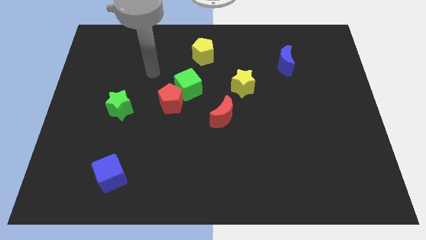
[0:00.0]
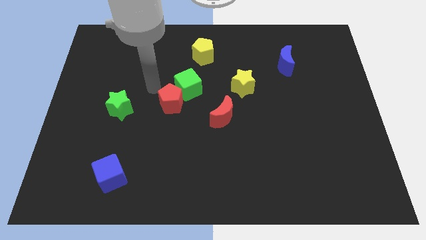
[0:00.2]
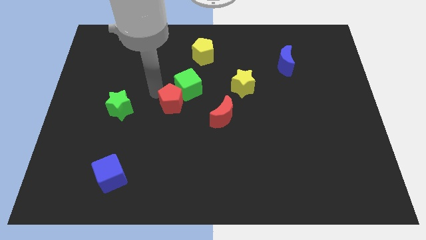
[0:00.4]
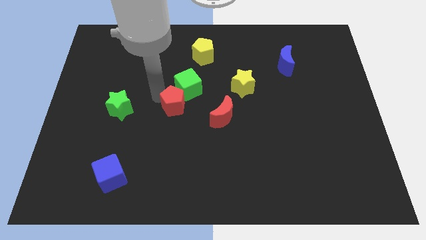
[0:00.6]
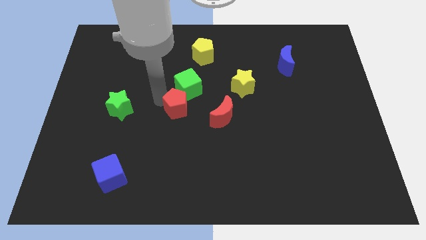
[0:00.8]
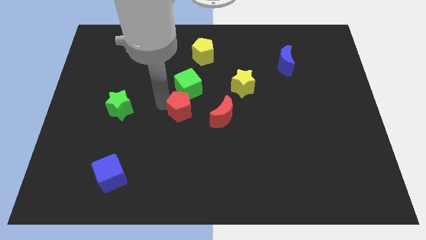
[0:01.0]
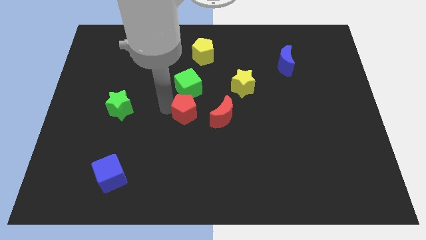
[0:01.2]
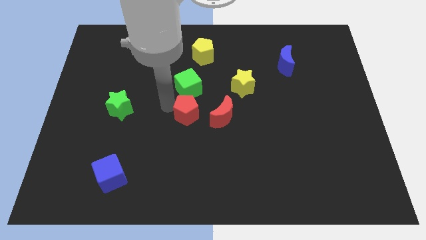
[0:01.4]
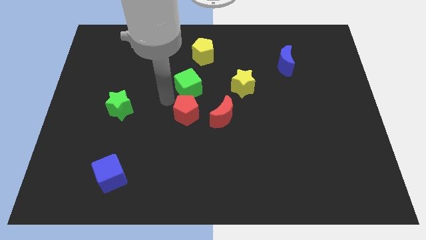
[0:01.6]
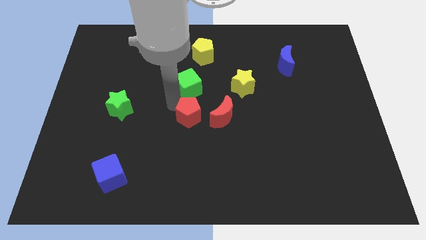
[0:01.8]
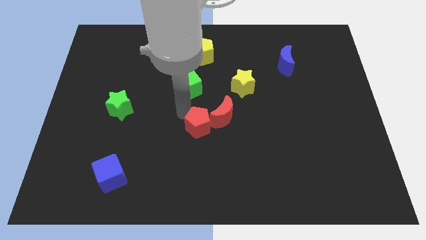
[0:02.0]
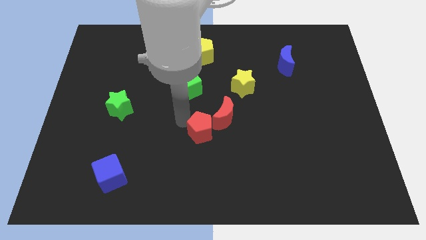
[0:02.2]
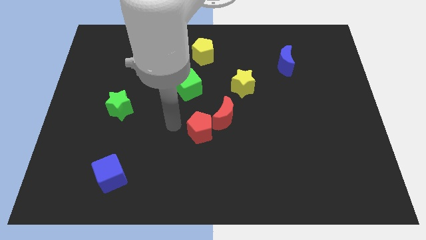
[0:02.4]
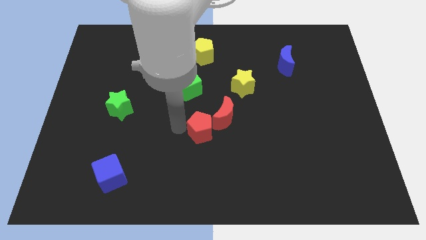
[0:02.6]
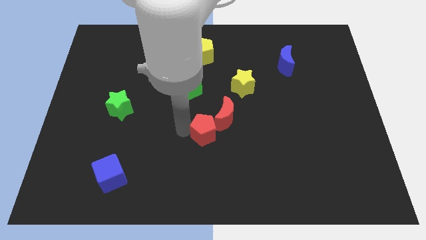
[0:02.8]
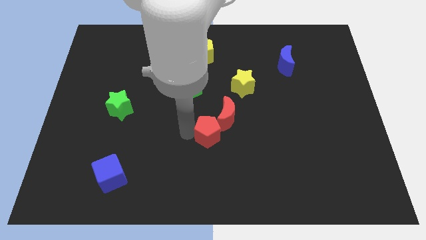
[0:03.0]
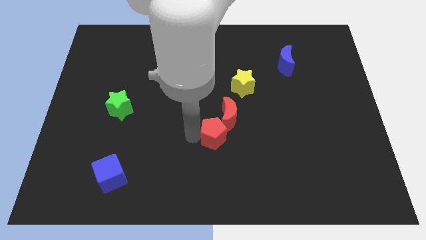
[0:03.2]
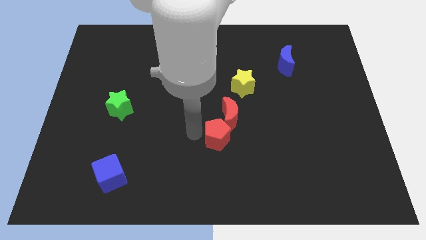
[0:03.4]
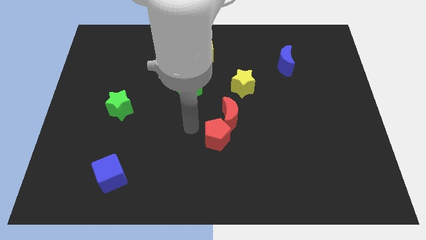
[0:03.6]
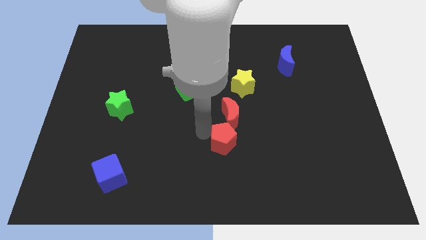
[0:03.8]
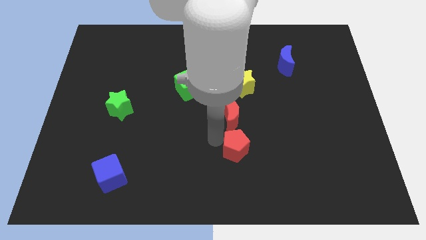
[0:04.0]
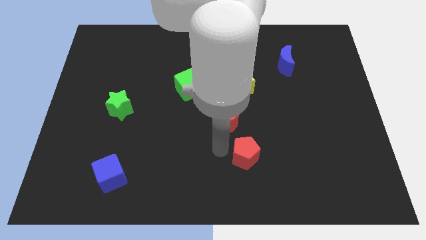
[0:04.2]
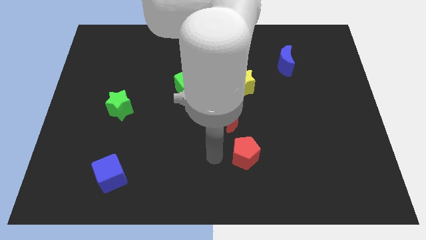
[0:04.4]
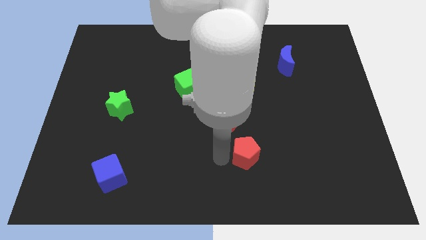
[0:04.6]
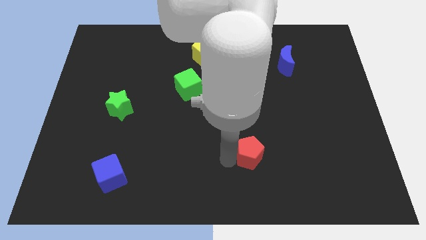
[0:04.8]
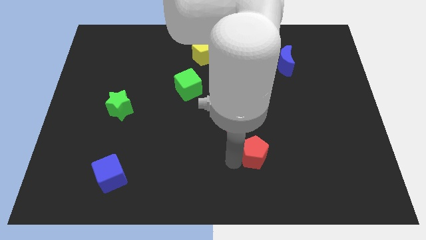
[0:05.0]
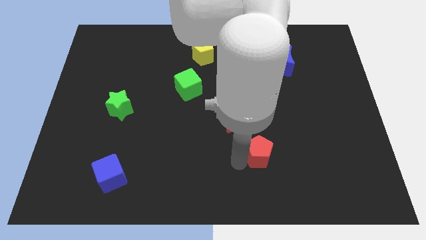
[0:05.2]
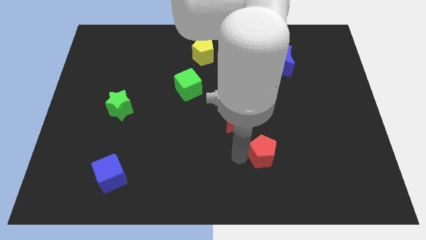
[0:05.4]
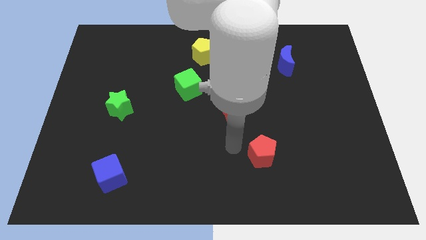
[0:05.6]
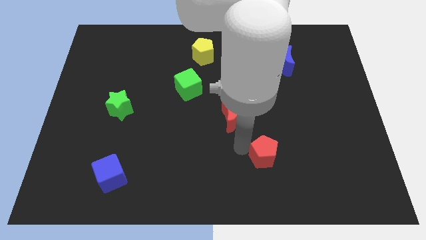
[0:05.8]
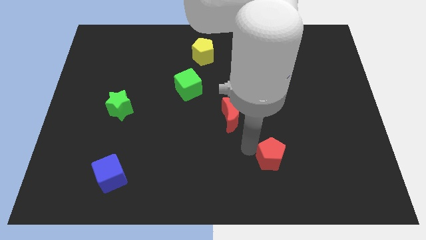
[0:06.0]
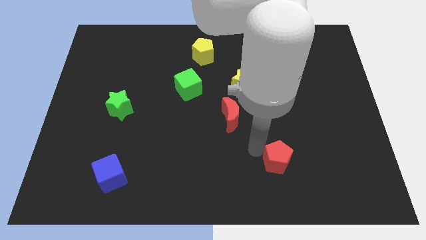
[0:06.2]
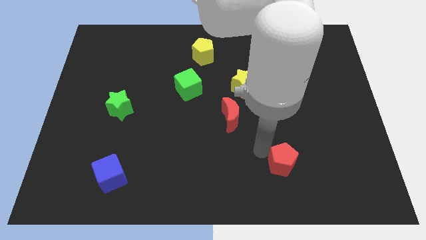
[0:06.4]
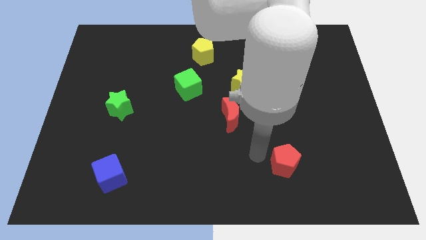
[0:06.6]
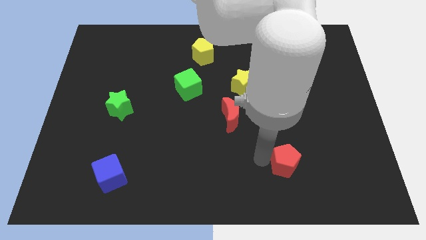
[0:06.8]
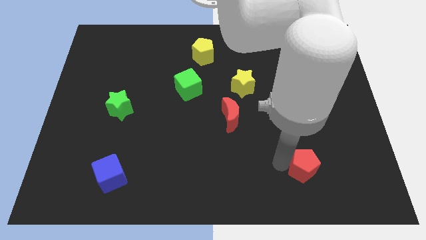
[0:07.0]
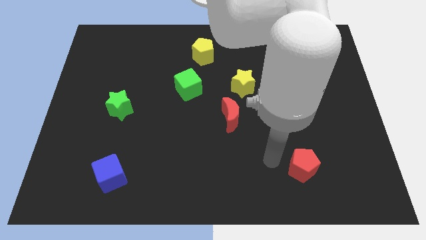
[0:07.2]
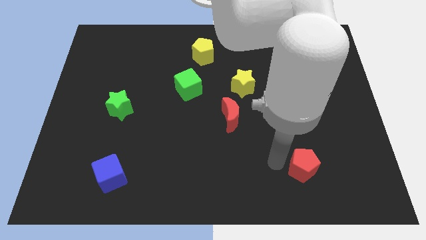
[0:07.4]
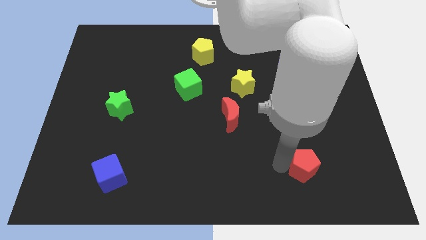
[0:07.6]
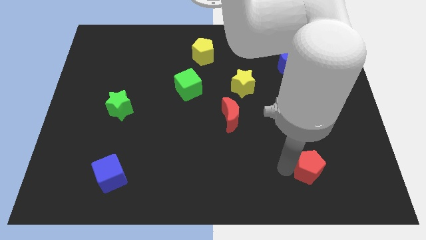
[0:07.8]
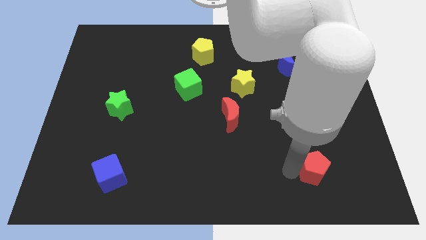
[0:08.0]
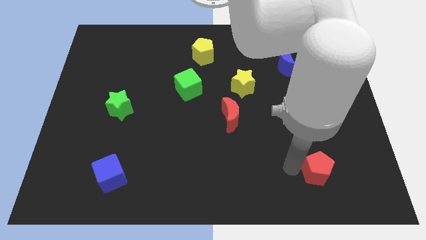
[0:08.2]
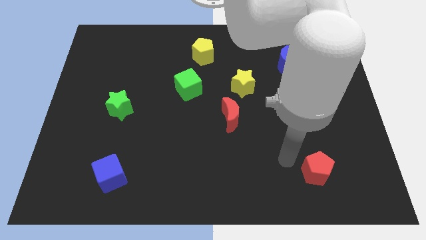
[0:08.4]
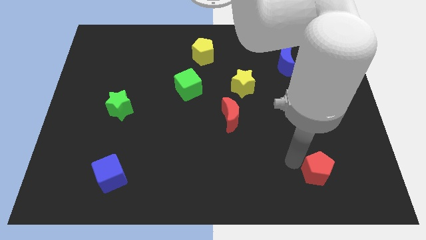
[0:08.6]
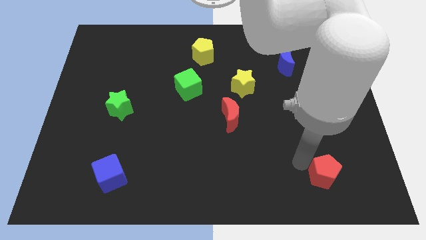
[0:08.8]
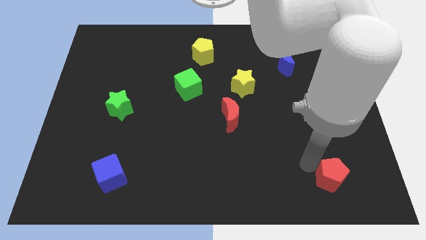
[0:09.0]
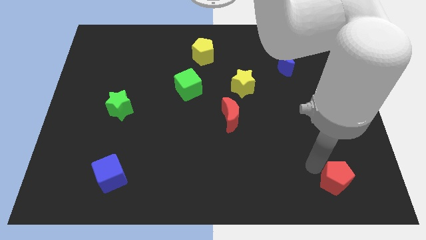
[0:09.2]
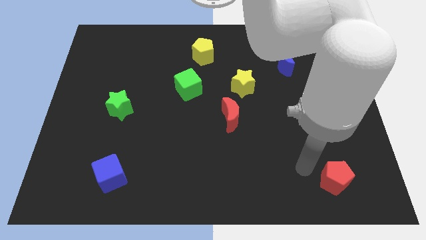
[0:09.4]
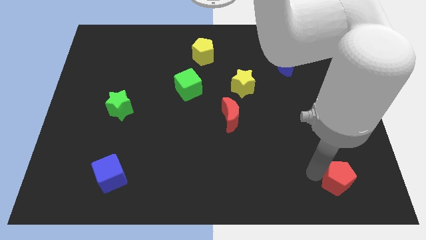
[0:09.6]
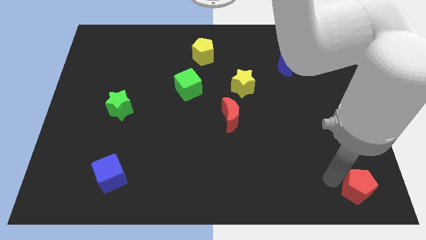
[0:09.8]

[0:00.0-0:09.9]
move the red pentagon to the lower right corner

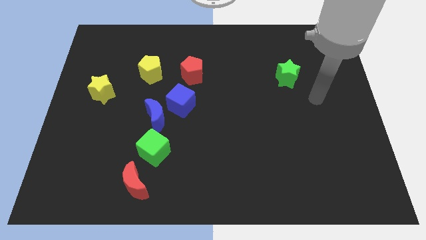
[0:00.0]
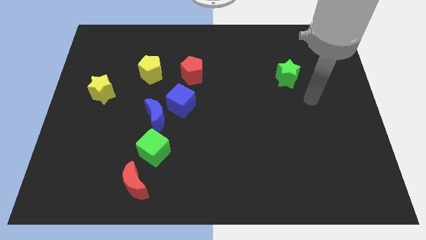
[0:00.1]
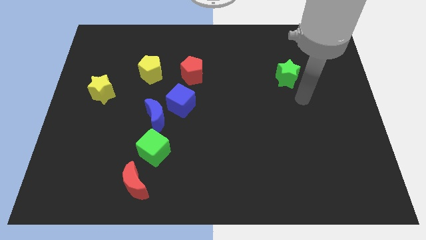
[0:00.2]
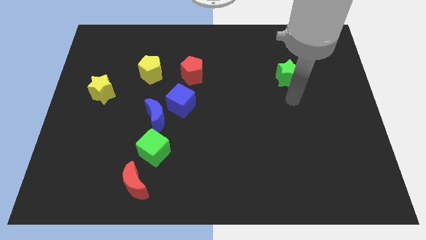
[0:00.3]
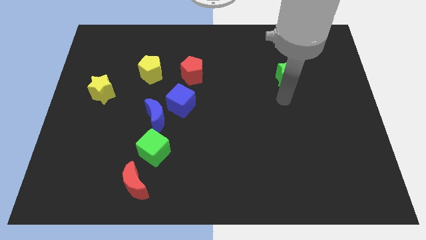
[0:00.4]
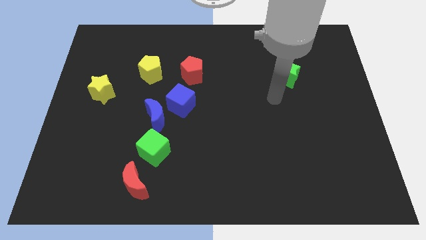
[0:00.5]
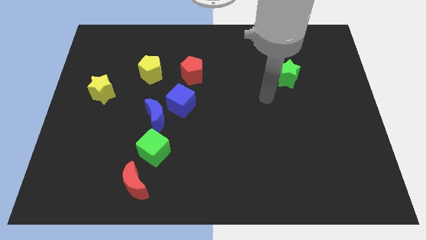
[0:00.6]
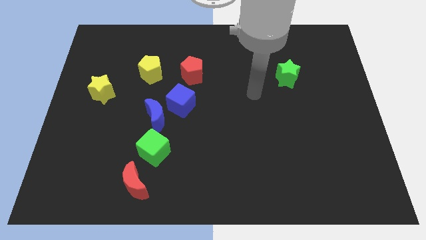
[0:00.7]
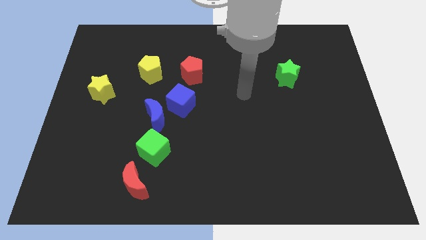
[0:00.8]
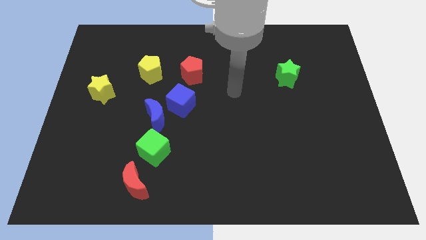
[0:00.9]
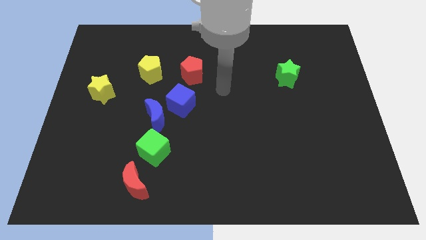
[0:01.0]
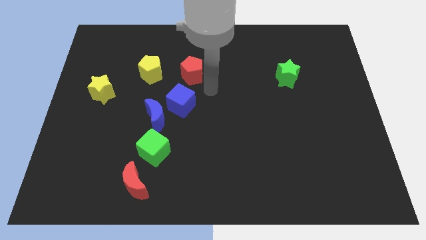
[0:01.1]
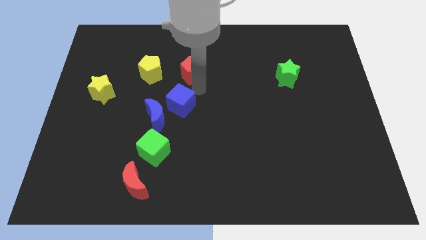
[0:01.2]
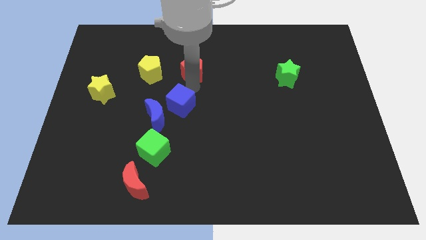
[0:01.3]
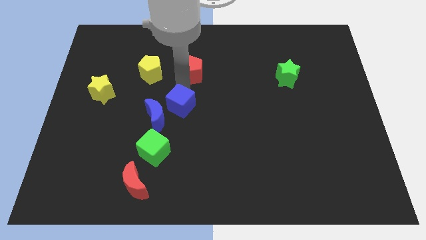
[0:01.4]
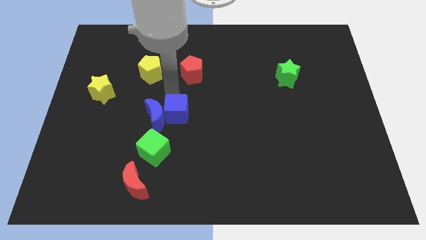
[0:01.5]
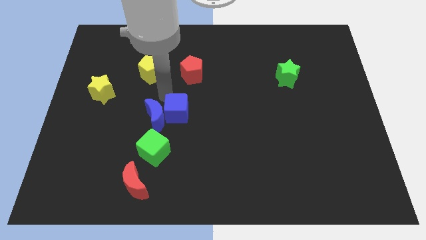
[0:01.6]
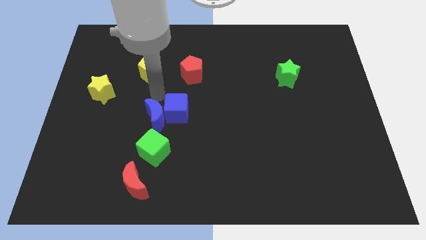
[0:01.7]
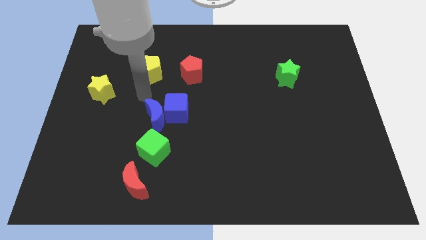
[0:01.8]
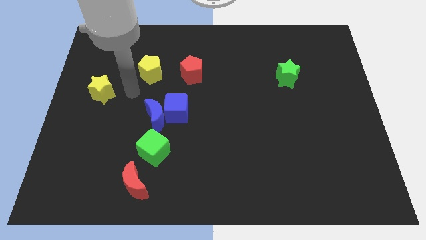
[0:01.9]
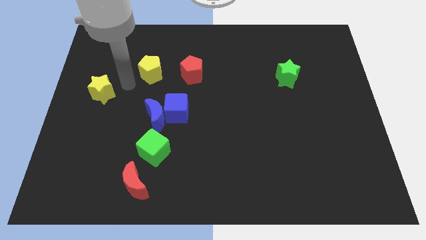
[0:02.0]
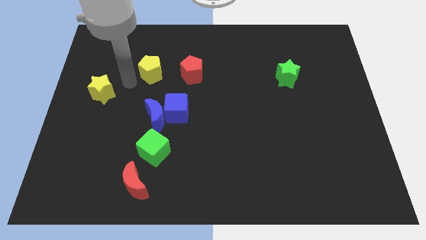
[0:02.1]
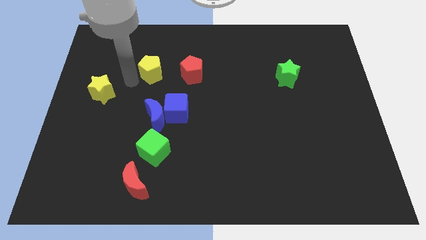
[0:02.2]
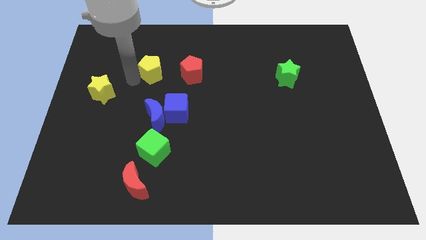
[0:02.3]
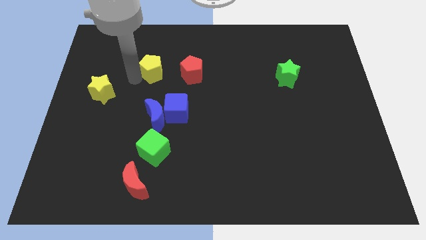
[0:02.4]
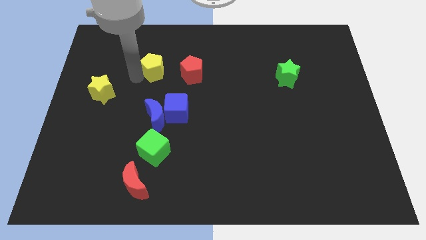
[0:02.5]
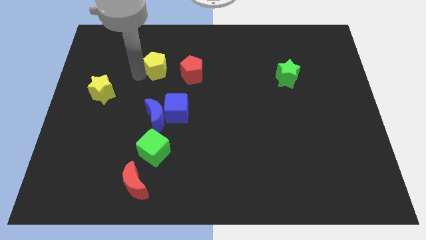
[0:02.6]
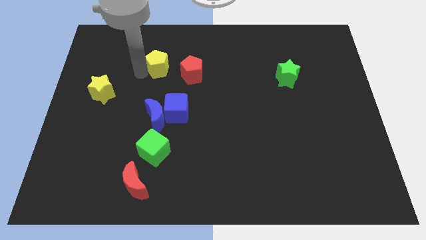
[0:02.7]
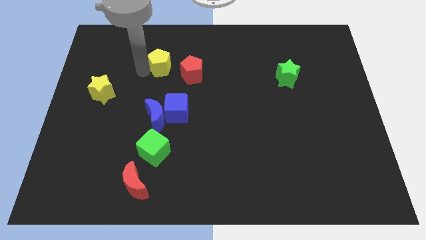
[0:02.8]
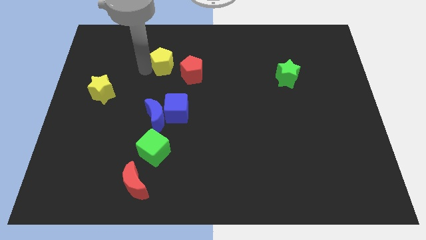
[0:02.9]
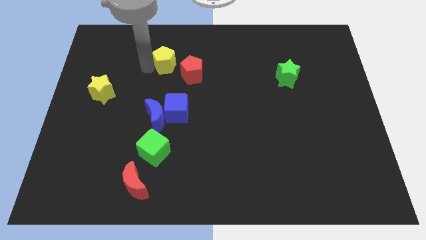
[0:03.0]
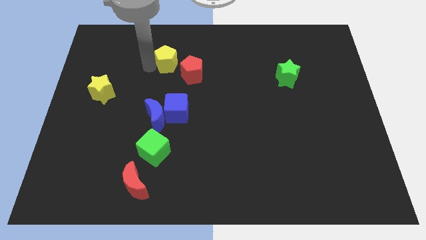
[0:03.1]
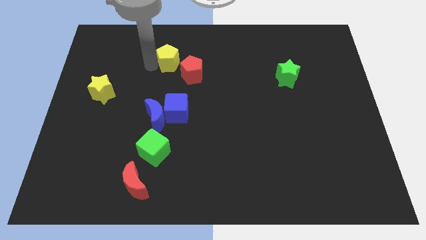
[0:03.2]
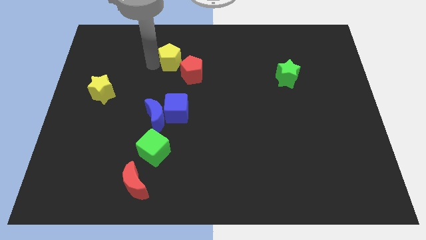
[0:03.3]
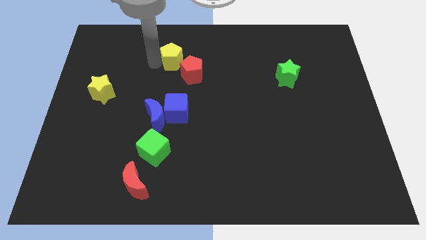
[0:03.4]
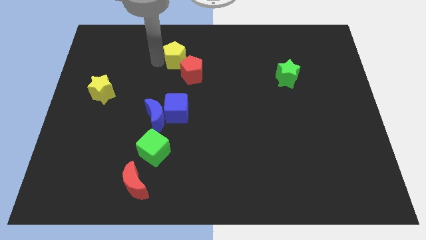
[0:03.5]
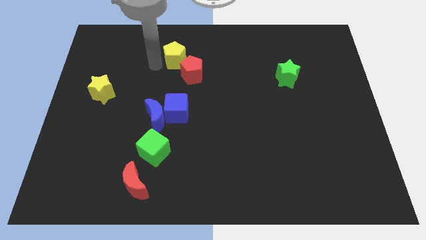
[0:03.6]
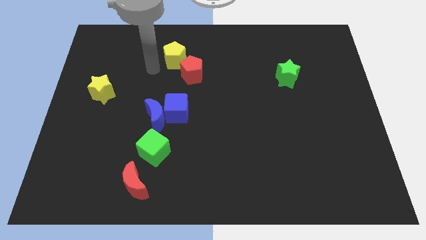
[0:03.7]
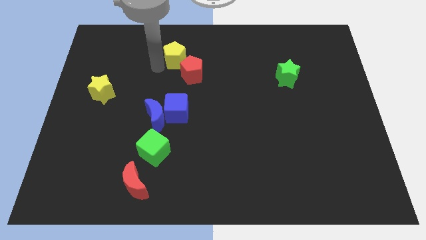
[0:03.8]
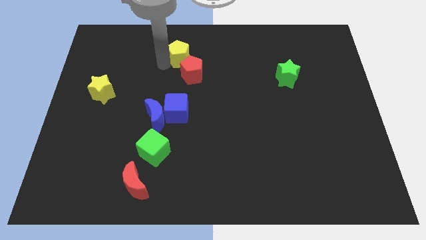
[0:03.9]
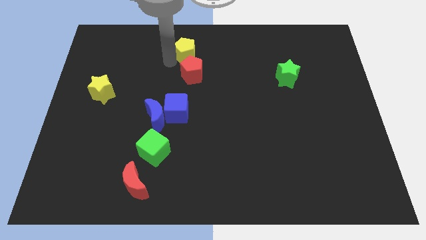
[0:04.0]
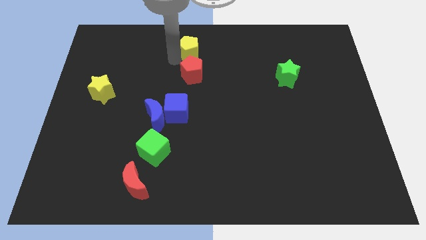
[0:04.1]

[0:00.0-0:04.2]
slide the yellow pentagon to the top side
